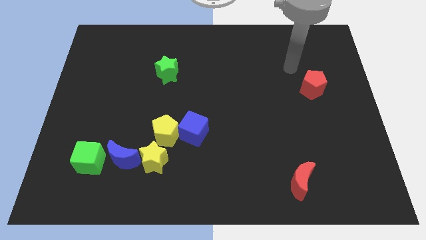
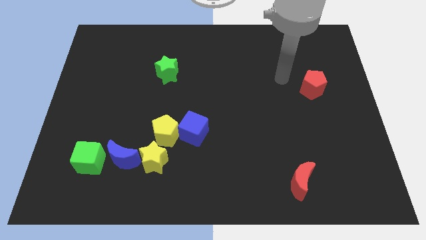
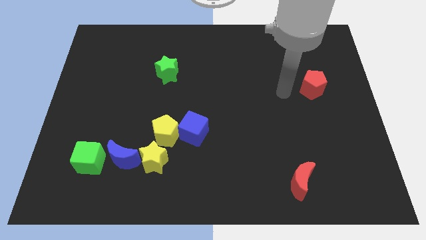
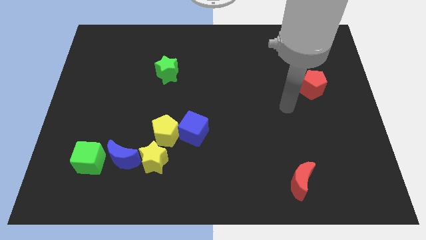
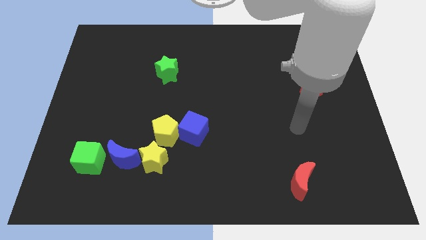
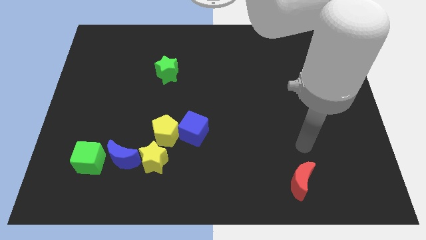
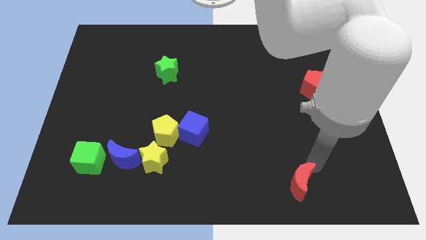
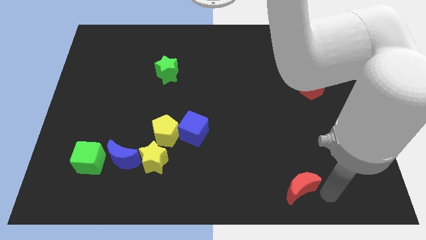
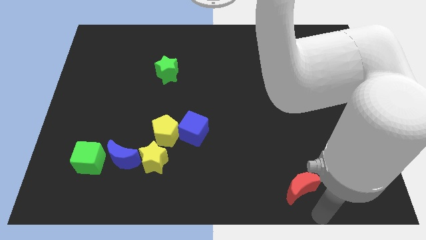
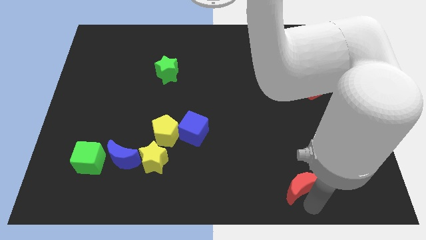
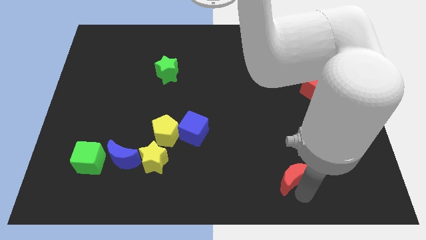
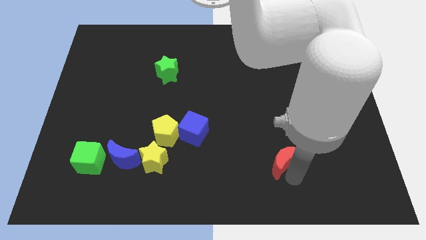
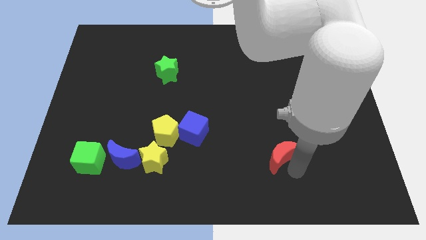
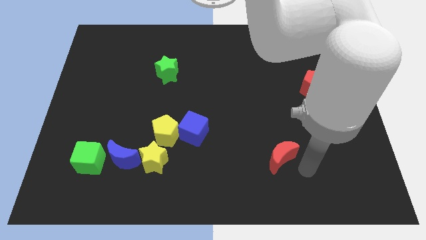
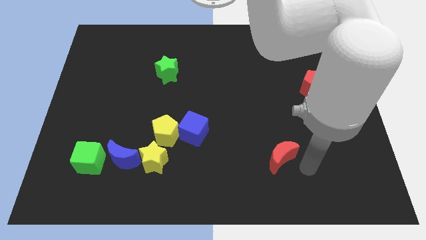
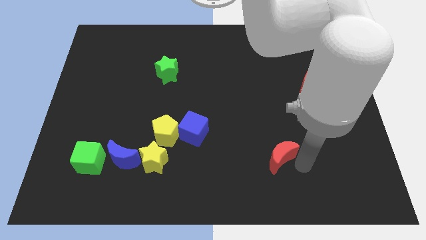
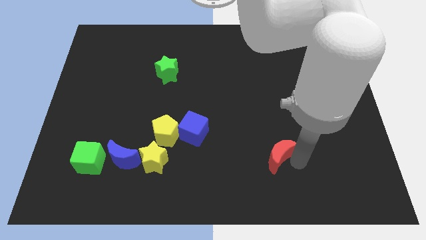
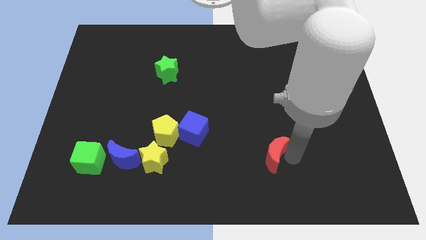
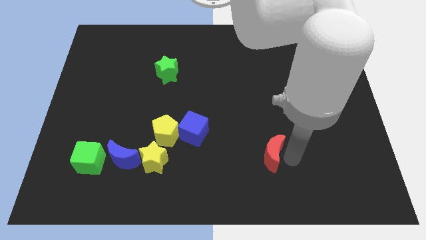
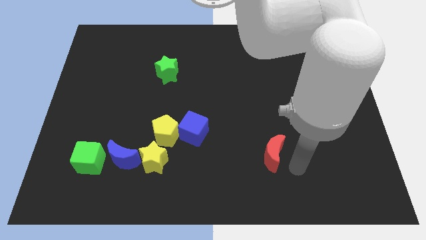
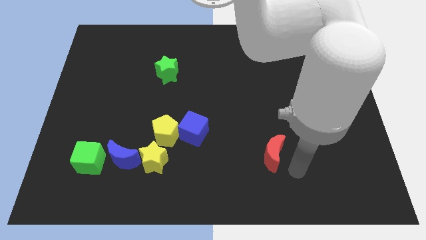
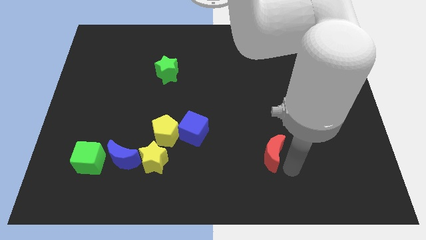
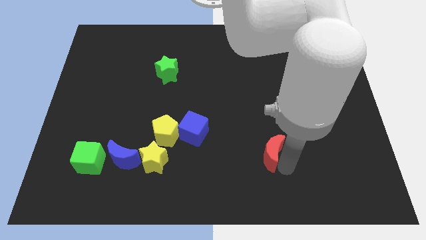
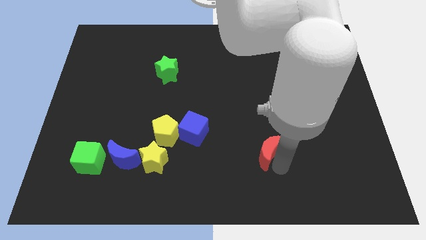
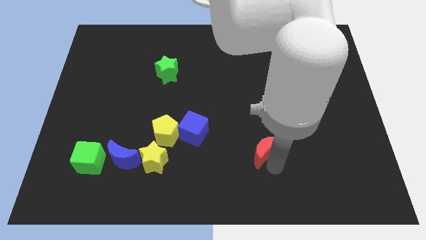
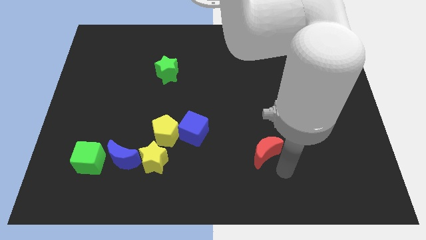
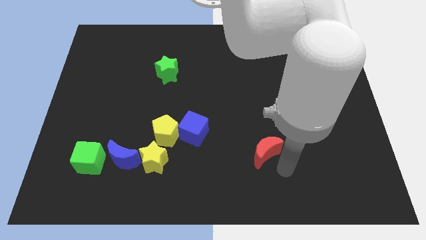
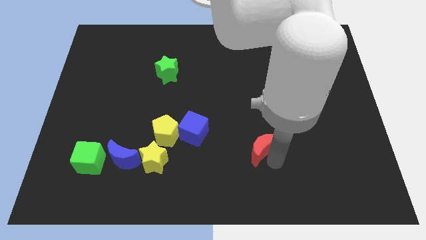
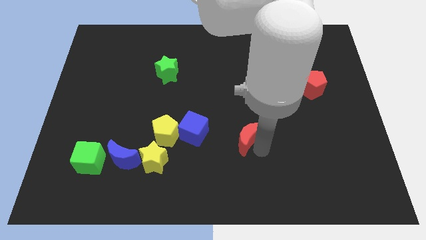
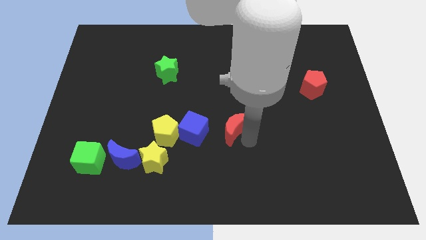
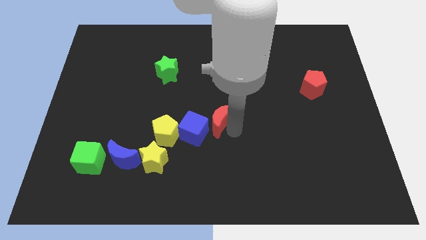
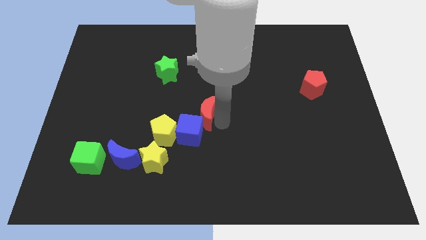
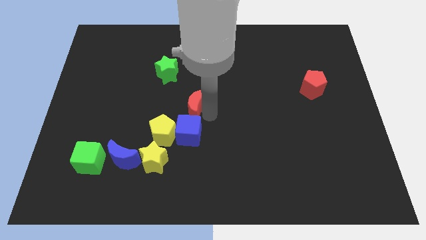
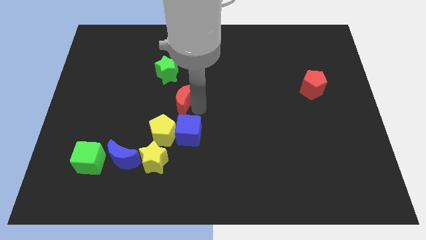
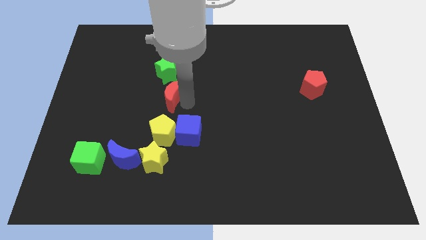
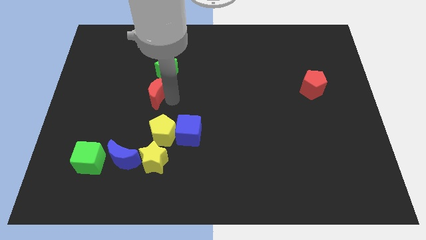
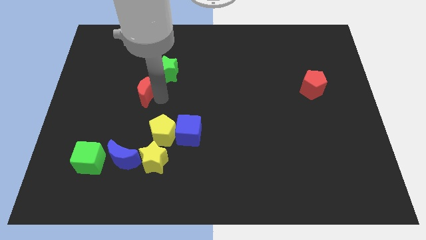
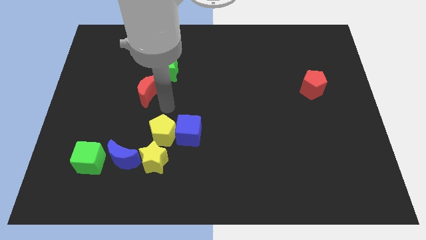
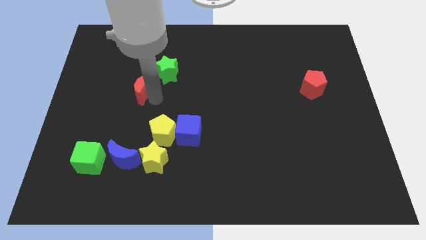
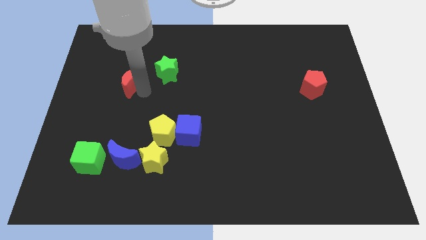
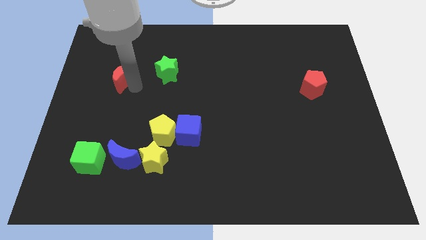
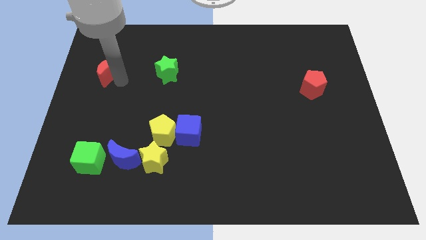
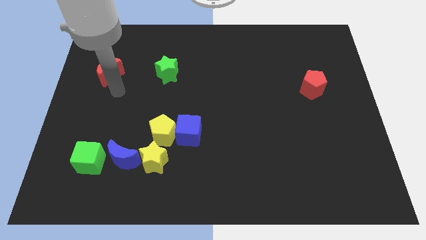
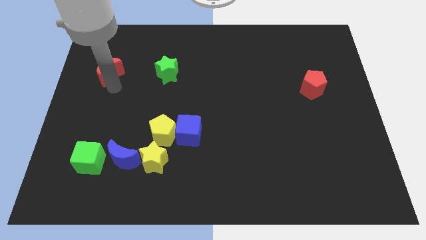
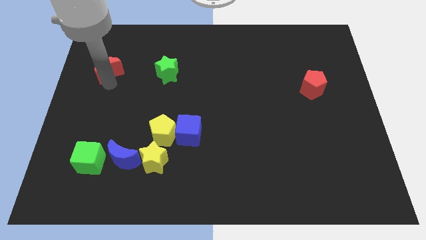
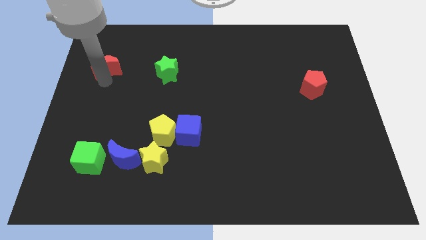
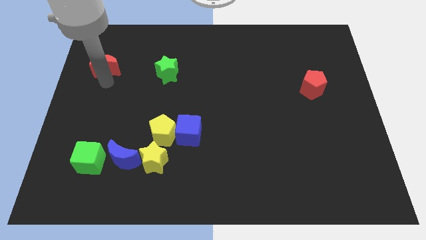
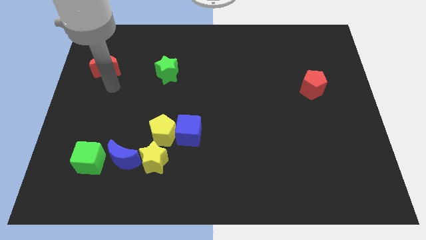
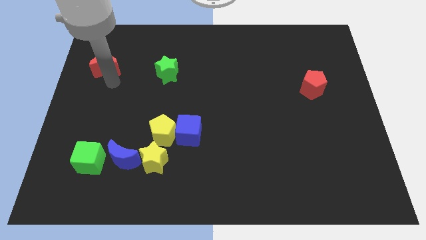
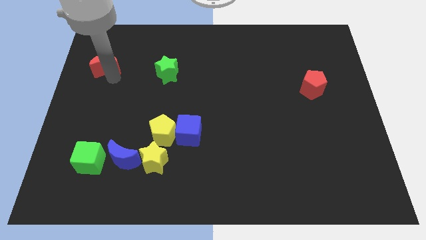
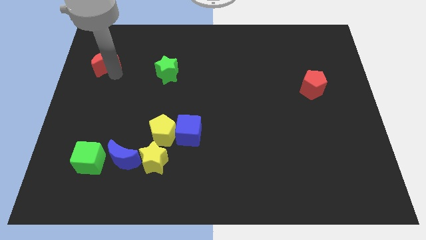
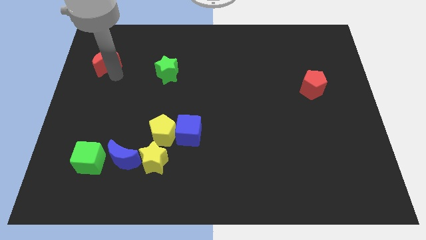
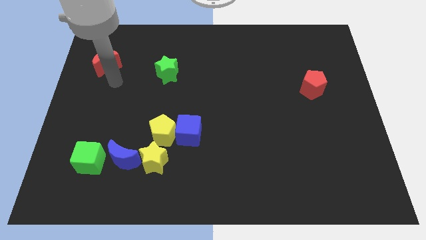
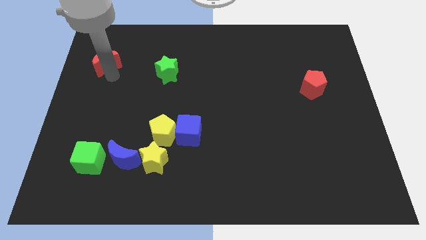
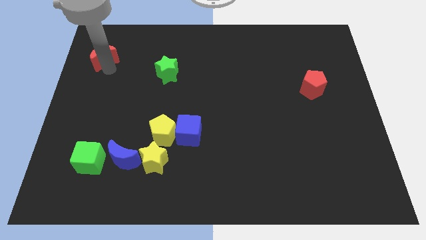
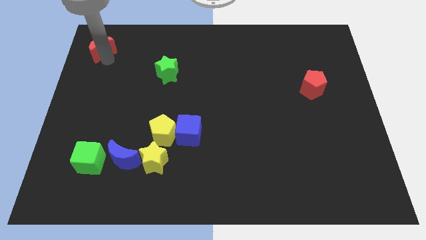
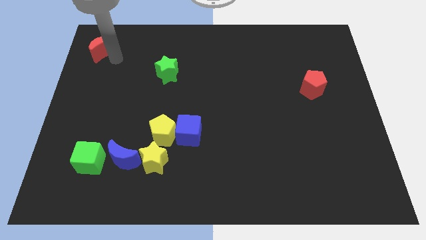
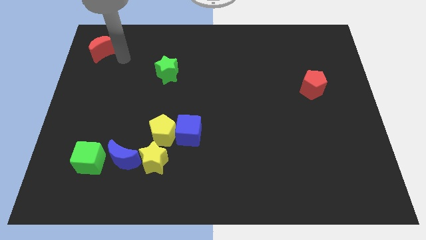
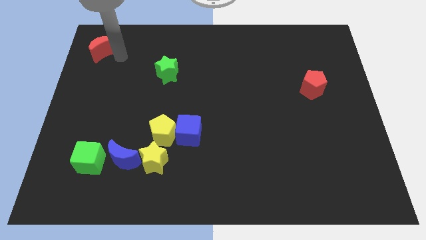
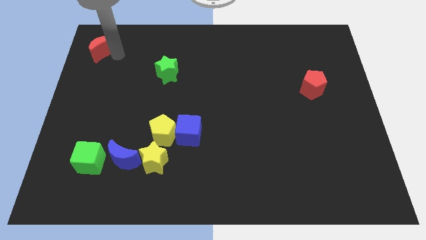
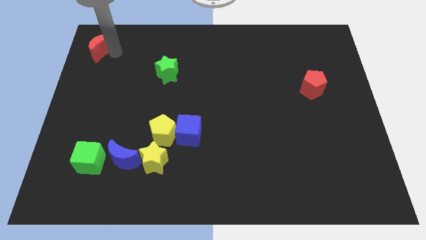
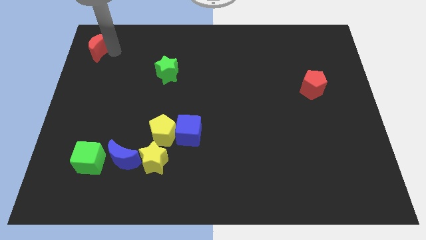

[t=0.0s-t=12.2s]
move the red moon to the top left of the board
